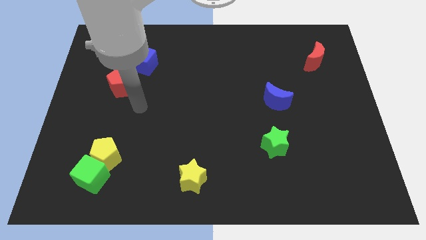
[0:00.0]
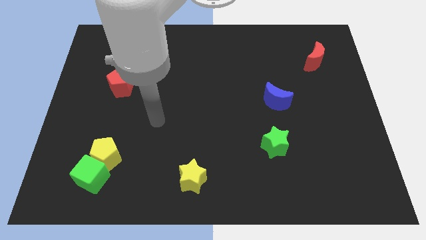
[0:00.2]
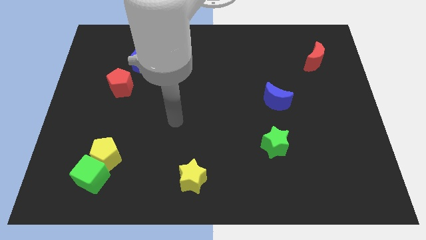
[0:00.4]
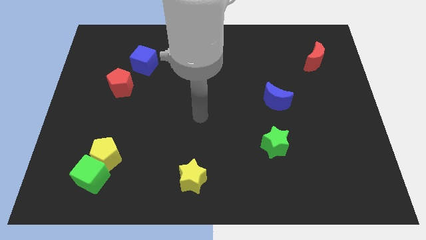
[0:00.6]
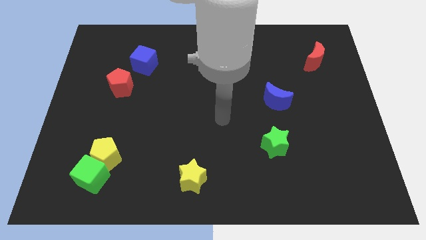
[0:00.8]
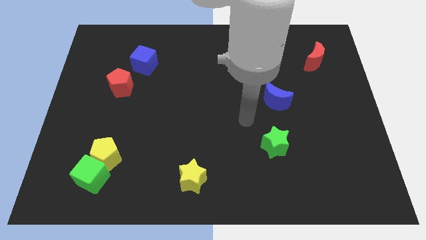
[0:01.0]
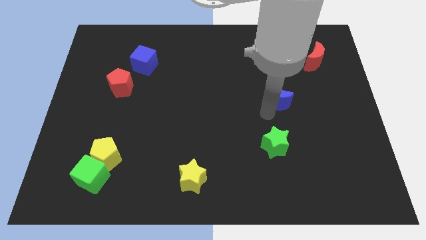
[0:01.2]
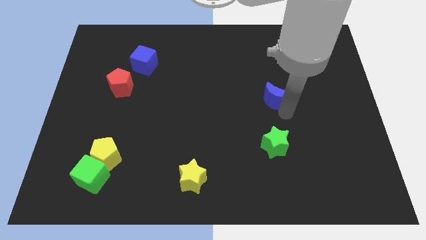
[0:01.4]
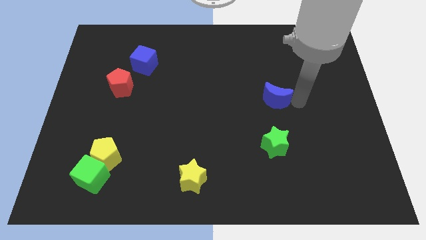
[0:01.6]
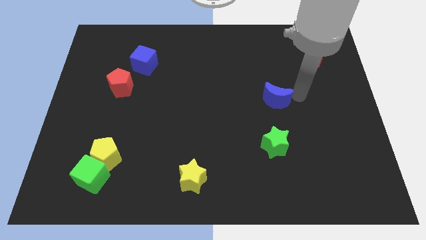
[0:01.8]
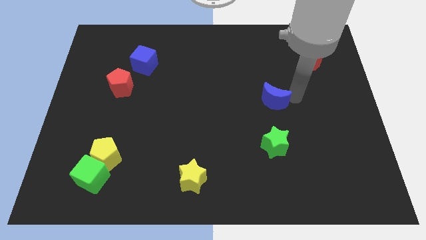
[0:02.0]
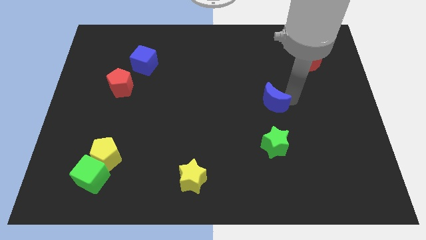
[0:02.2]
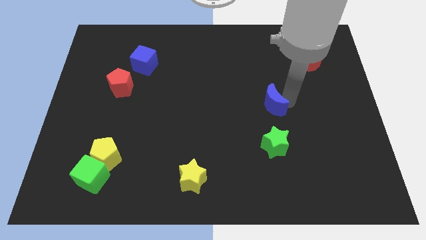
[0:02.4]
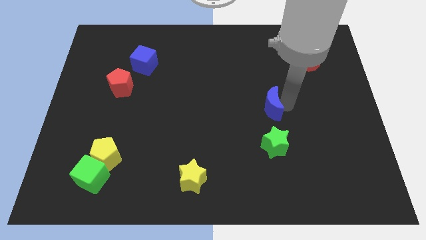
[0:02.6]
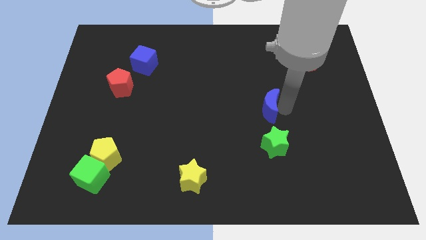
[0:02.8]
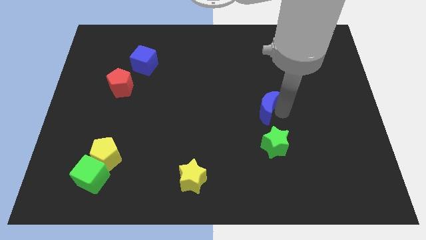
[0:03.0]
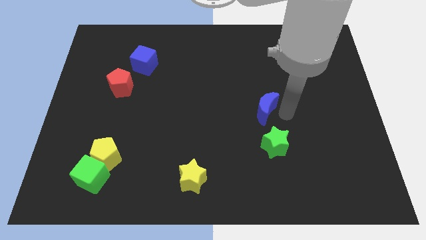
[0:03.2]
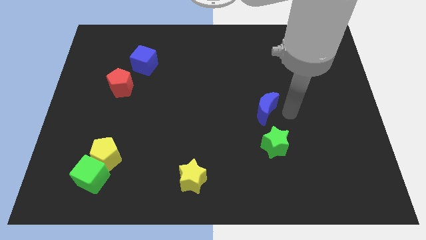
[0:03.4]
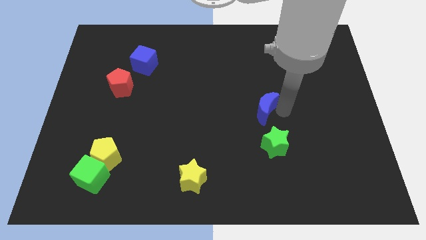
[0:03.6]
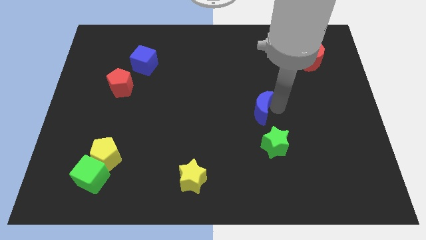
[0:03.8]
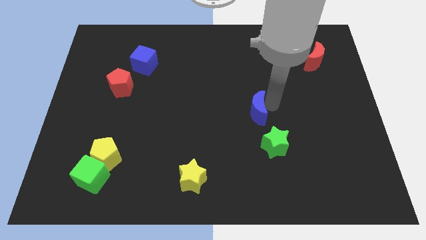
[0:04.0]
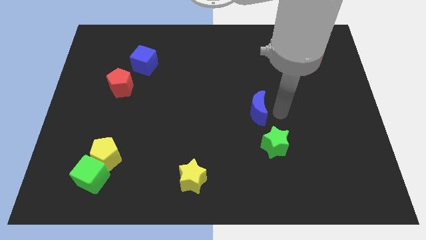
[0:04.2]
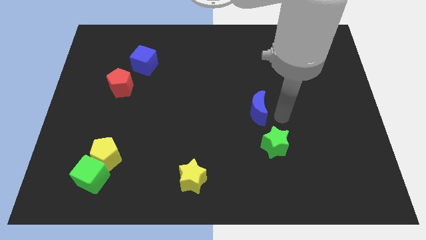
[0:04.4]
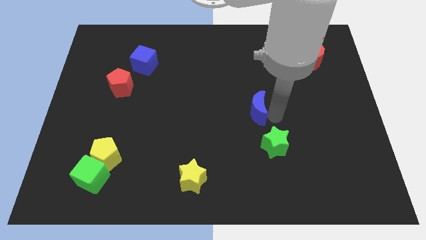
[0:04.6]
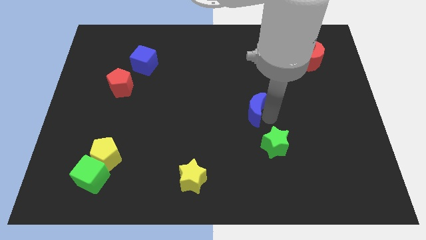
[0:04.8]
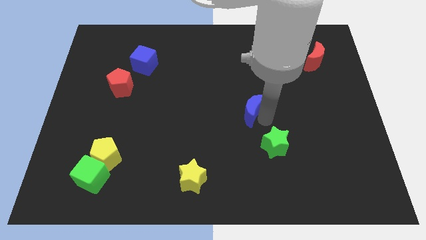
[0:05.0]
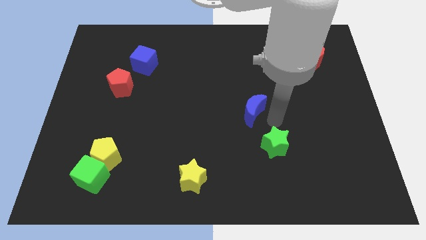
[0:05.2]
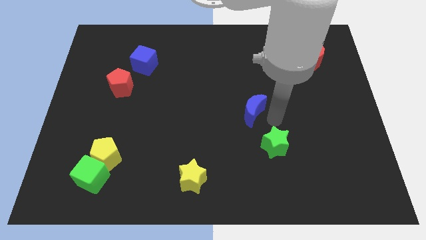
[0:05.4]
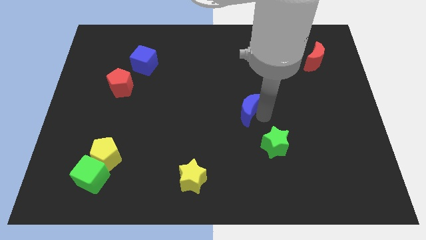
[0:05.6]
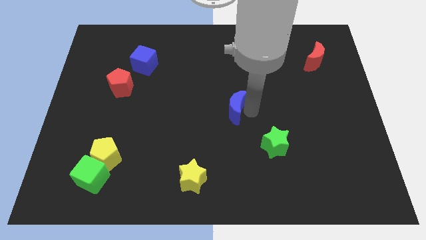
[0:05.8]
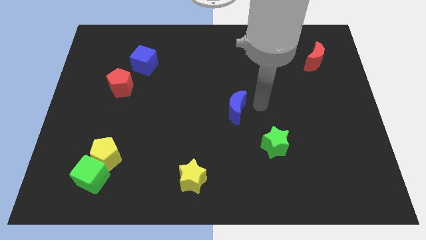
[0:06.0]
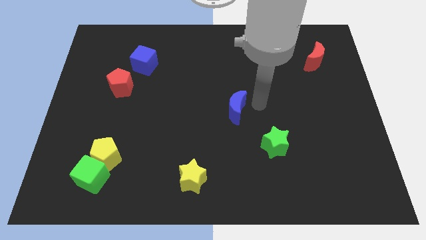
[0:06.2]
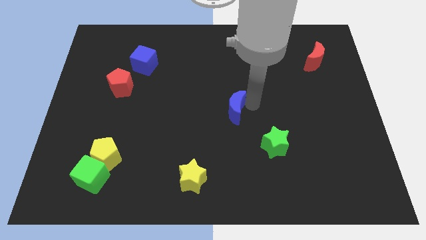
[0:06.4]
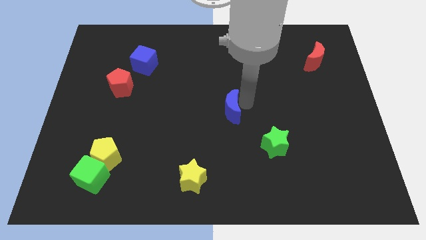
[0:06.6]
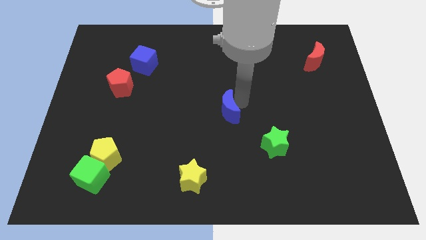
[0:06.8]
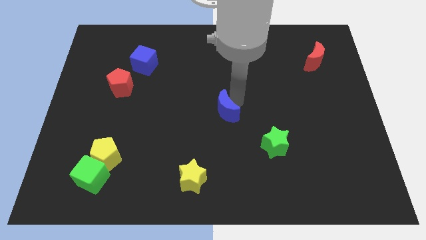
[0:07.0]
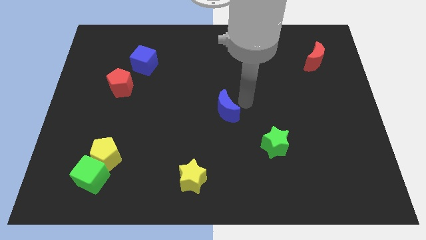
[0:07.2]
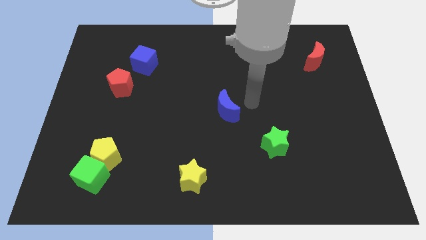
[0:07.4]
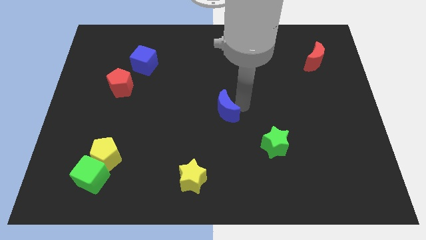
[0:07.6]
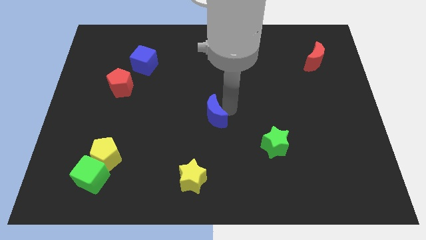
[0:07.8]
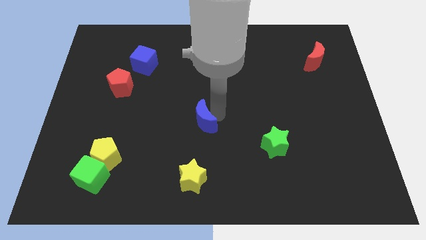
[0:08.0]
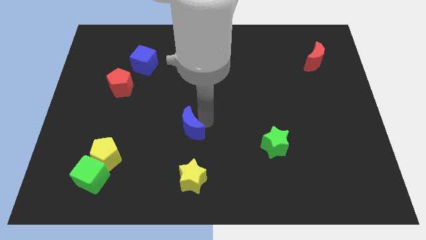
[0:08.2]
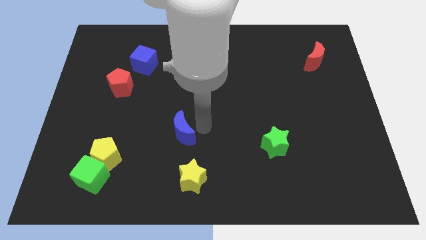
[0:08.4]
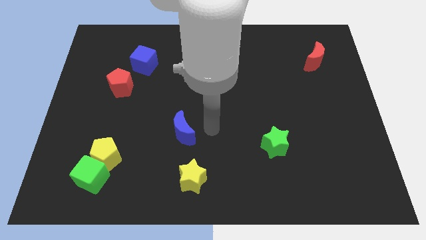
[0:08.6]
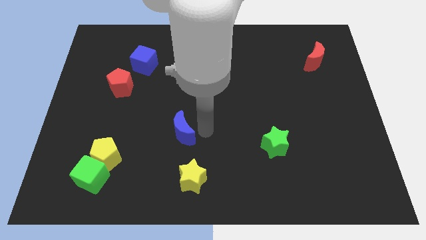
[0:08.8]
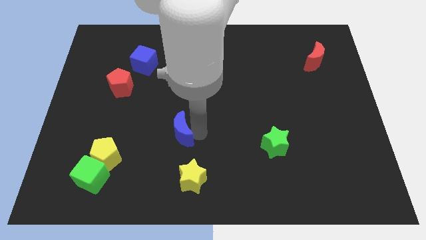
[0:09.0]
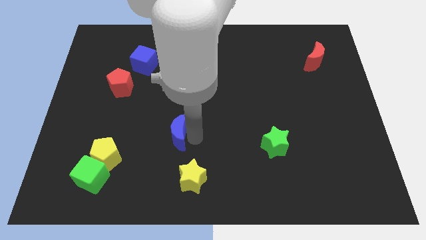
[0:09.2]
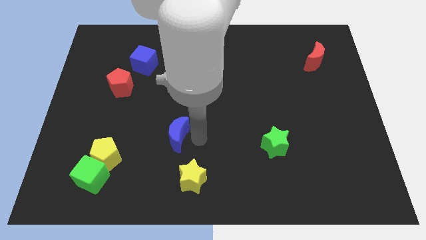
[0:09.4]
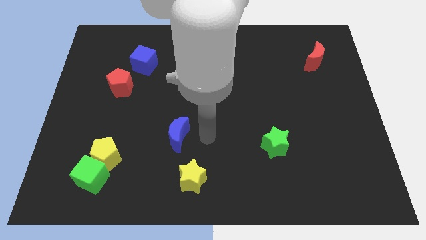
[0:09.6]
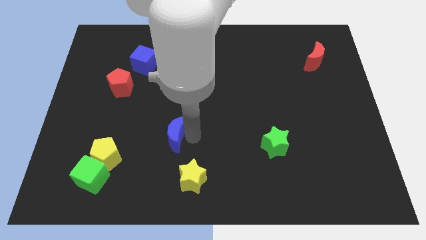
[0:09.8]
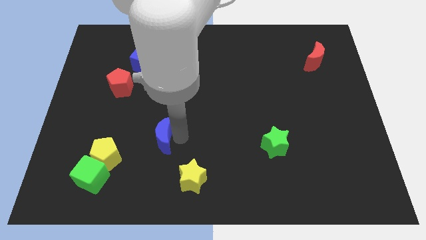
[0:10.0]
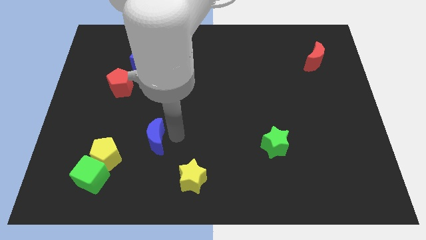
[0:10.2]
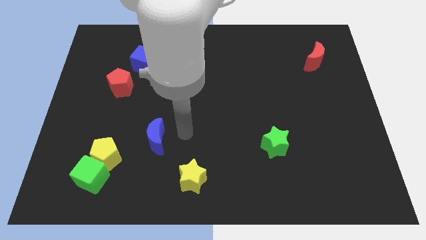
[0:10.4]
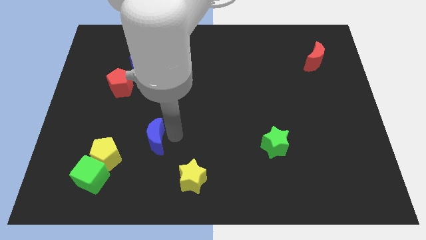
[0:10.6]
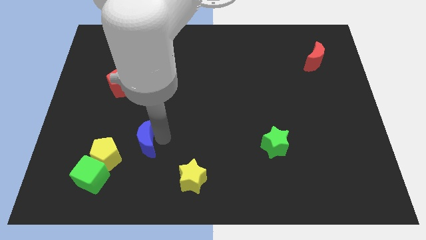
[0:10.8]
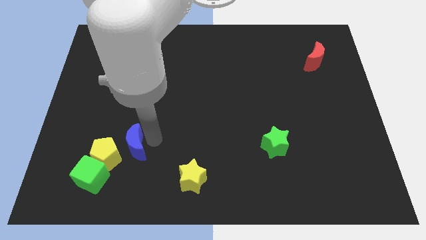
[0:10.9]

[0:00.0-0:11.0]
put the blue moon close to the yellow pentagon

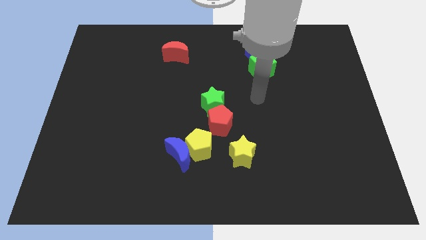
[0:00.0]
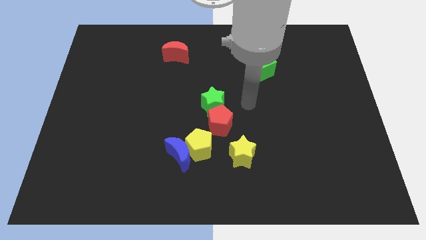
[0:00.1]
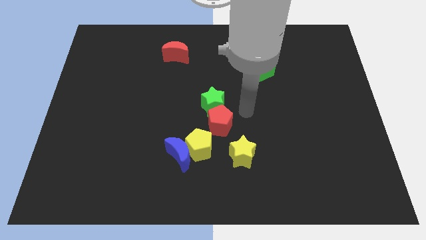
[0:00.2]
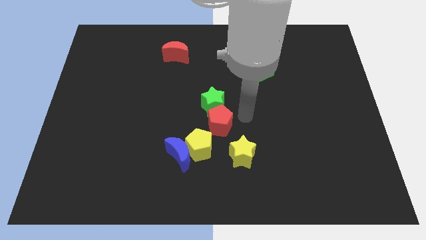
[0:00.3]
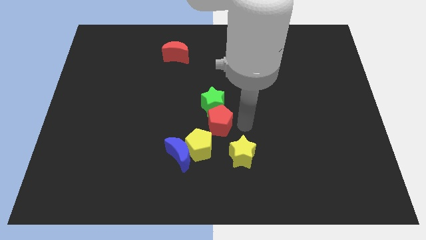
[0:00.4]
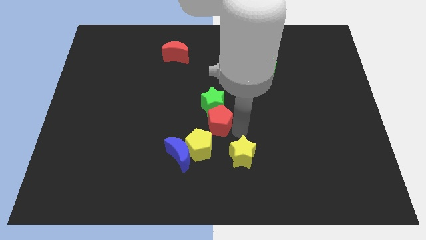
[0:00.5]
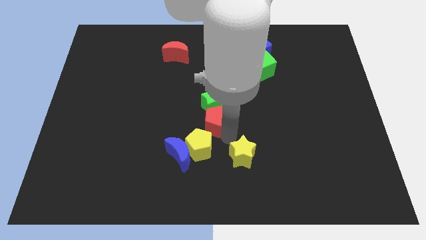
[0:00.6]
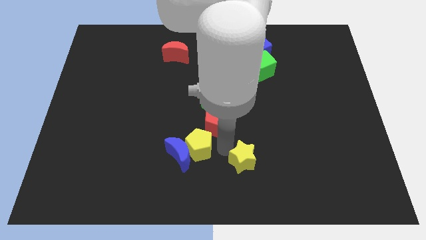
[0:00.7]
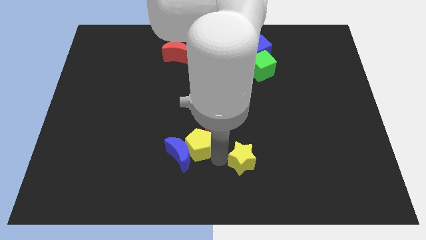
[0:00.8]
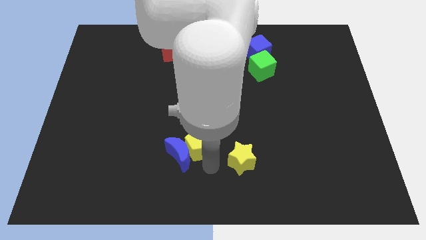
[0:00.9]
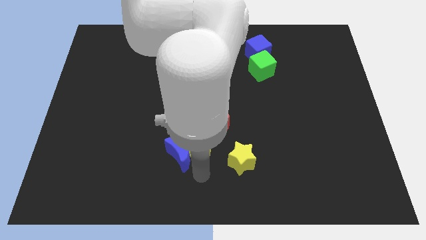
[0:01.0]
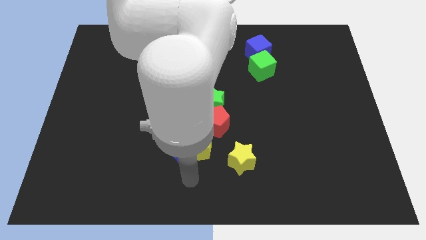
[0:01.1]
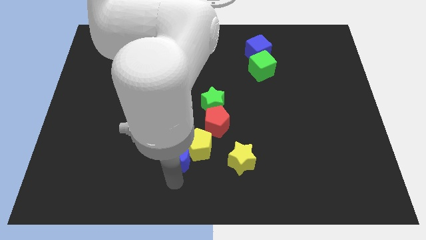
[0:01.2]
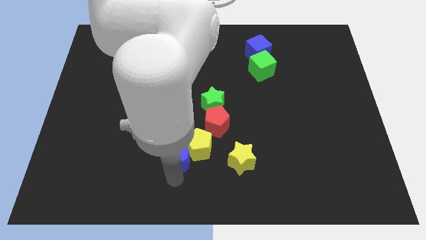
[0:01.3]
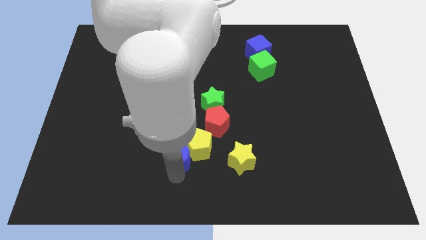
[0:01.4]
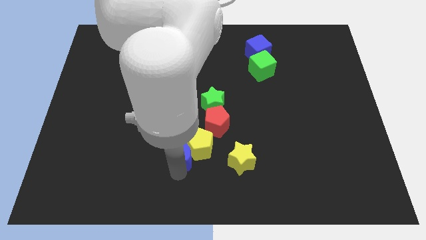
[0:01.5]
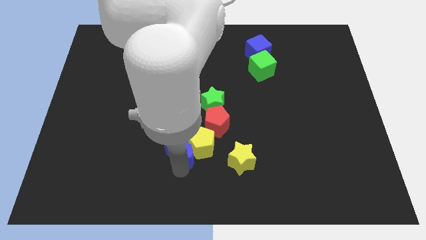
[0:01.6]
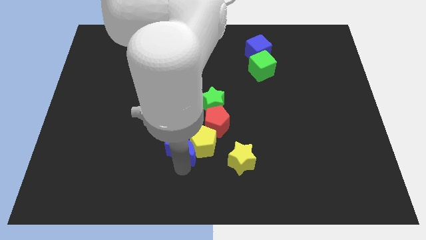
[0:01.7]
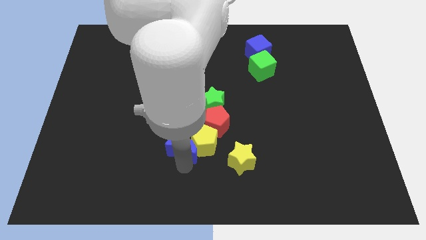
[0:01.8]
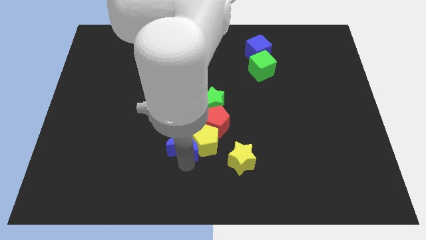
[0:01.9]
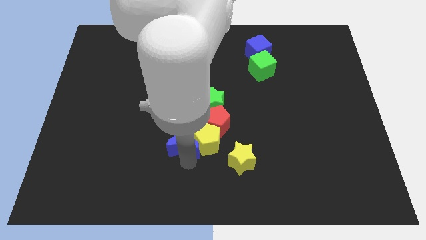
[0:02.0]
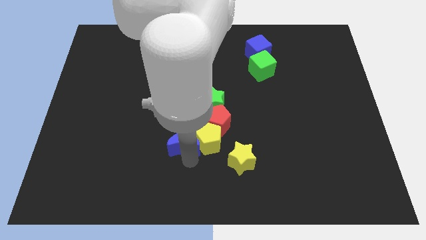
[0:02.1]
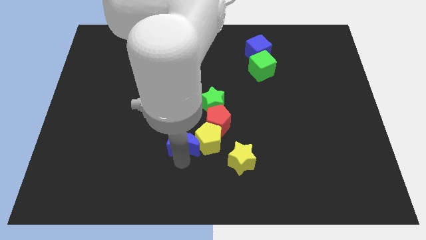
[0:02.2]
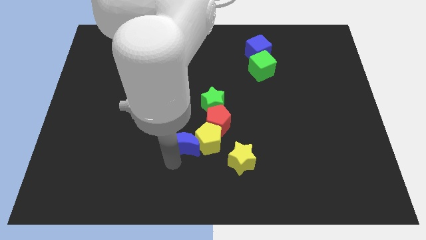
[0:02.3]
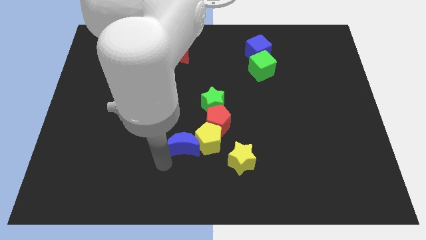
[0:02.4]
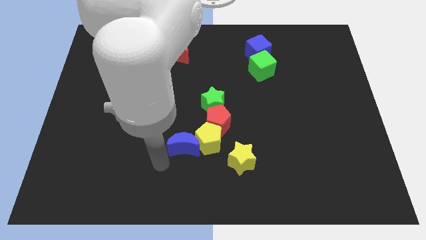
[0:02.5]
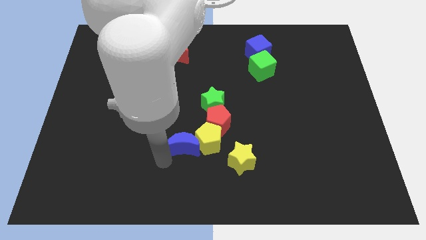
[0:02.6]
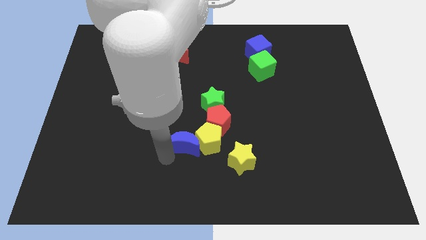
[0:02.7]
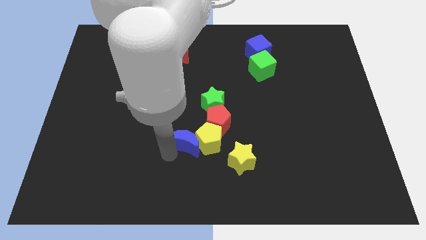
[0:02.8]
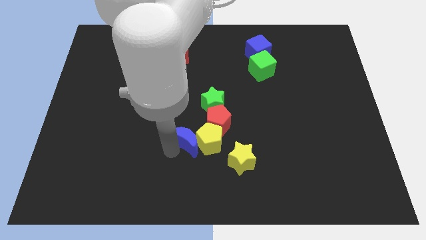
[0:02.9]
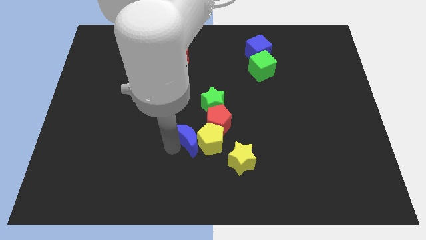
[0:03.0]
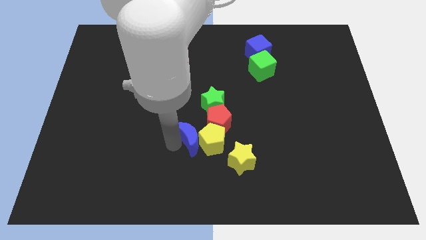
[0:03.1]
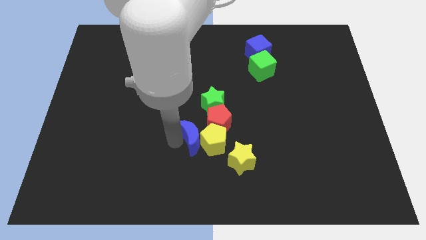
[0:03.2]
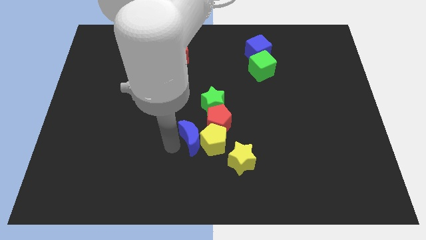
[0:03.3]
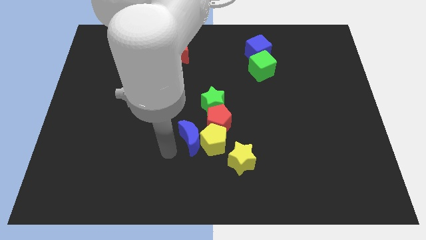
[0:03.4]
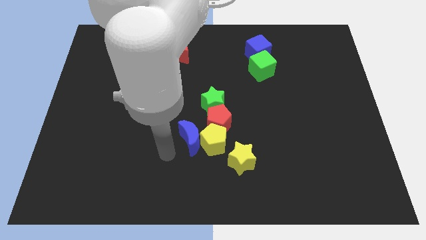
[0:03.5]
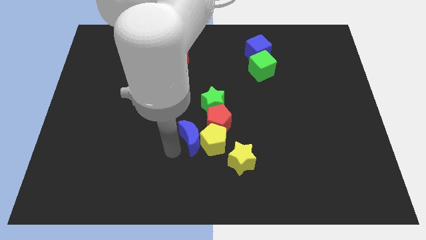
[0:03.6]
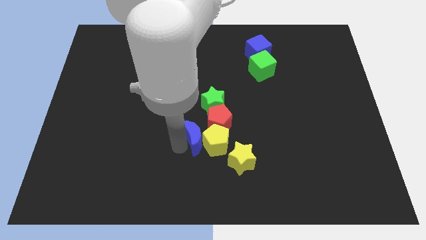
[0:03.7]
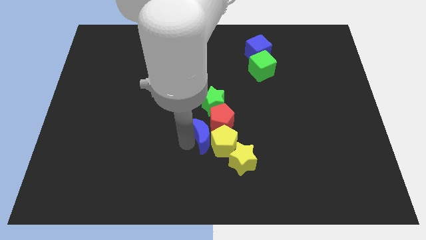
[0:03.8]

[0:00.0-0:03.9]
move the blue moon close to the red pentagon
